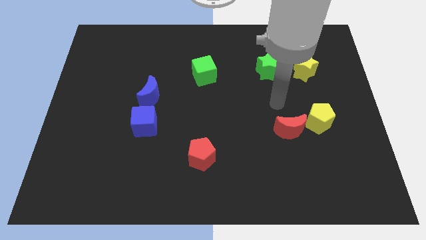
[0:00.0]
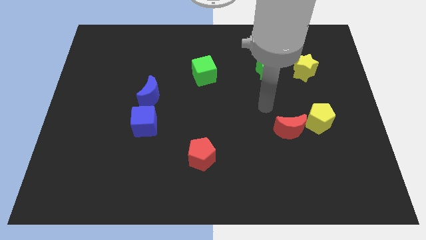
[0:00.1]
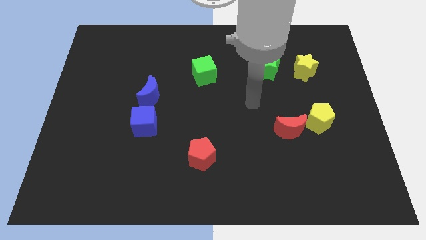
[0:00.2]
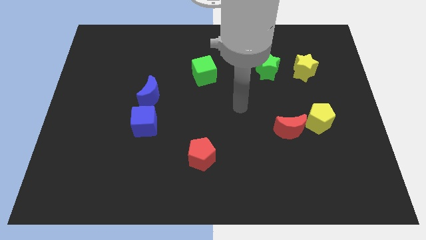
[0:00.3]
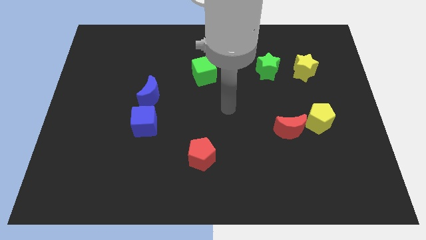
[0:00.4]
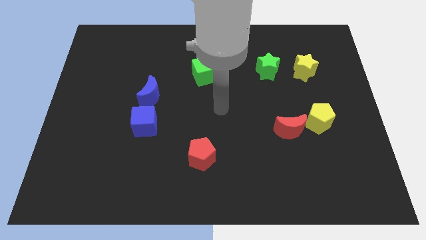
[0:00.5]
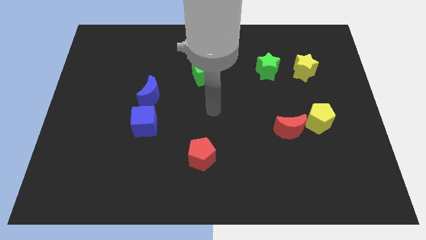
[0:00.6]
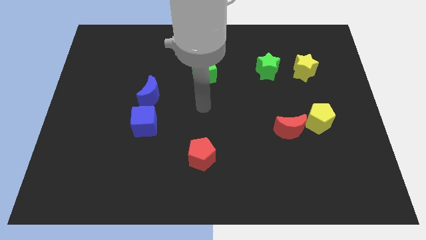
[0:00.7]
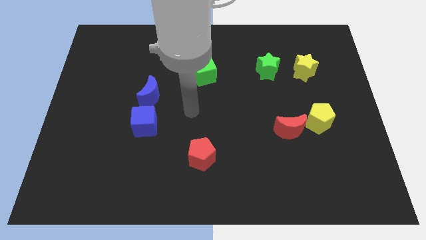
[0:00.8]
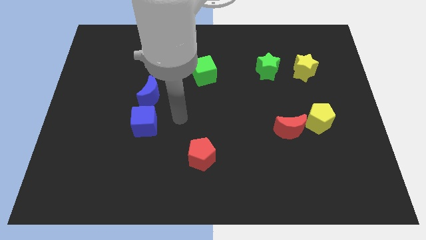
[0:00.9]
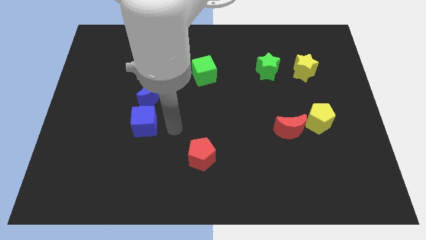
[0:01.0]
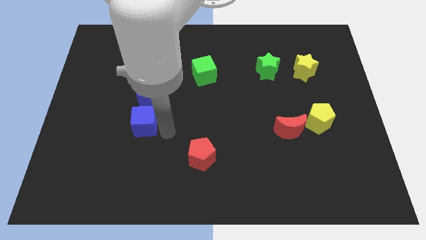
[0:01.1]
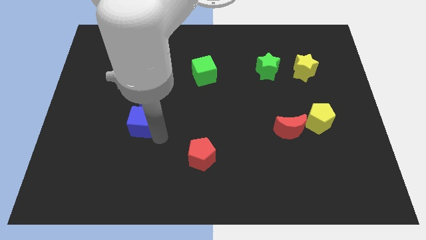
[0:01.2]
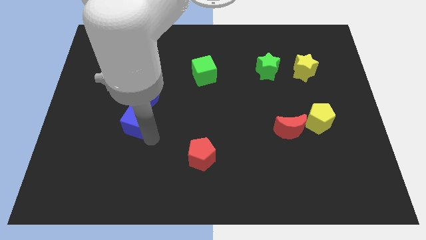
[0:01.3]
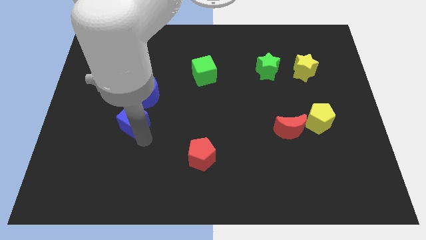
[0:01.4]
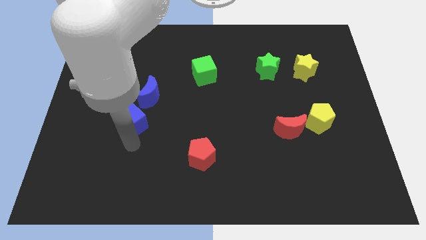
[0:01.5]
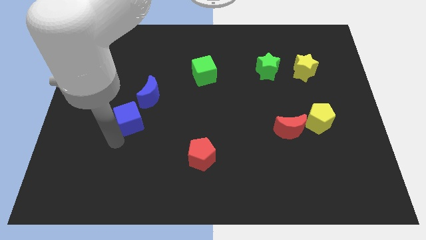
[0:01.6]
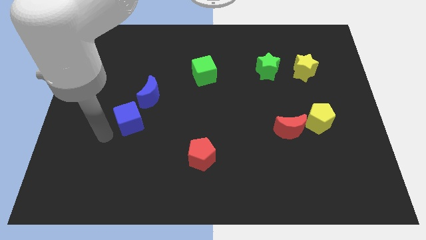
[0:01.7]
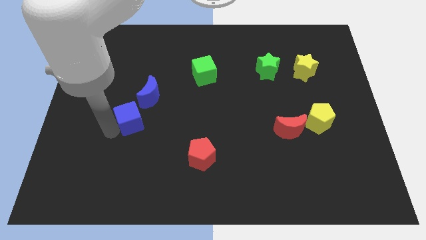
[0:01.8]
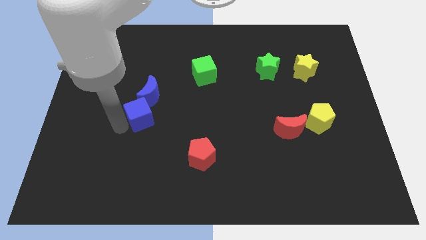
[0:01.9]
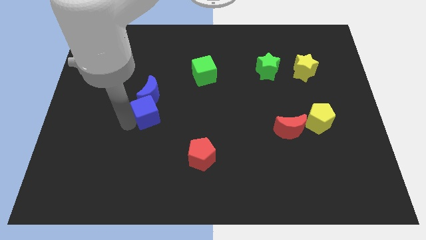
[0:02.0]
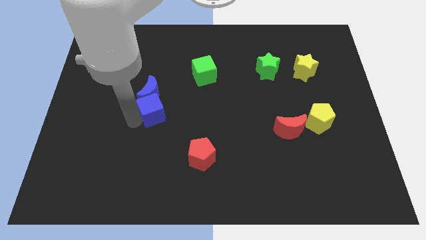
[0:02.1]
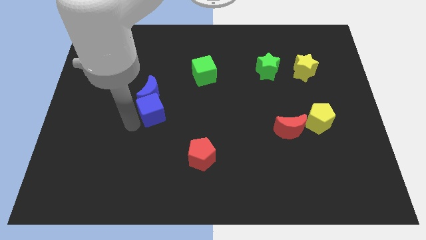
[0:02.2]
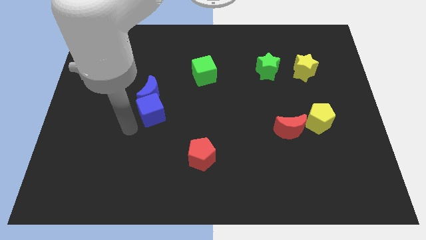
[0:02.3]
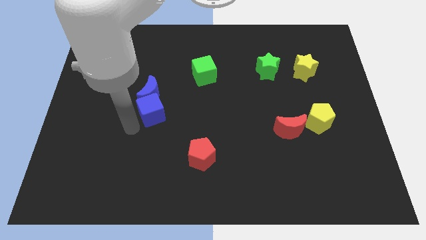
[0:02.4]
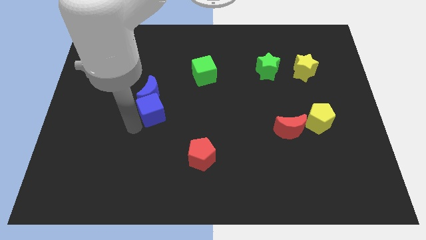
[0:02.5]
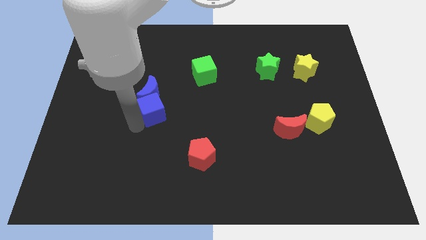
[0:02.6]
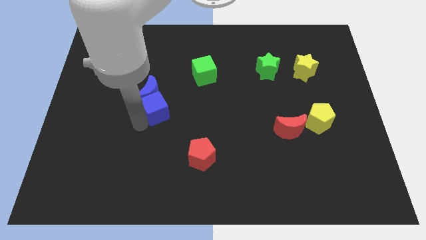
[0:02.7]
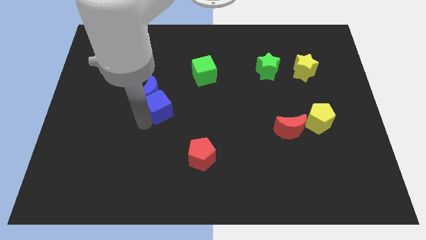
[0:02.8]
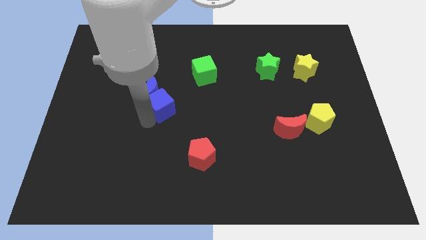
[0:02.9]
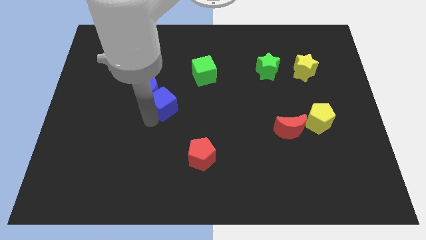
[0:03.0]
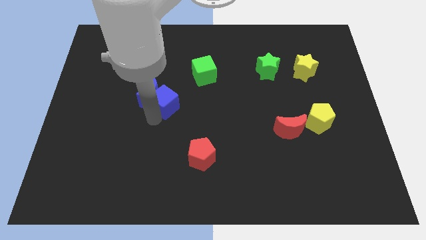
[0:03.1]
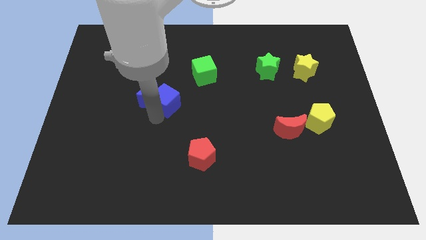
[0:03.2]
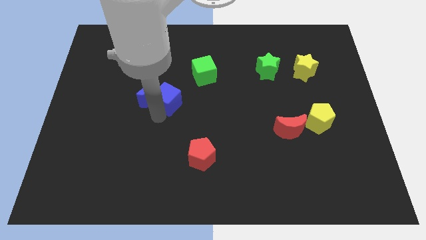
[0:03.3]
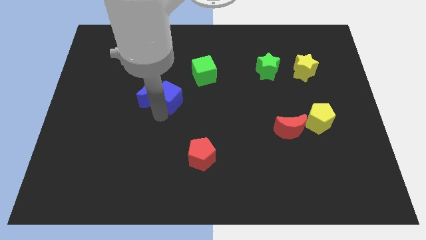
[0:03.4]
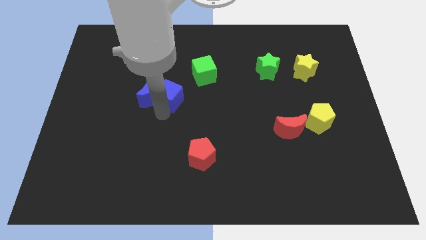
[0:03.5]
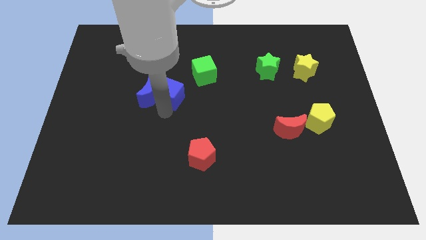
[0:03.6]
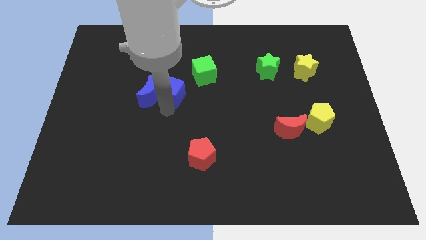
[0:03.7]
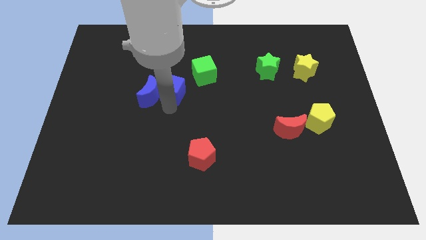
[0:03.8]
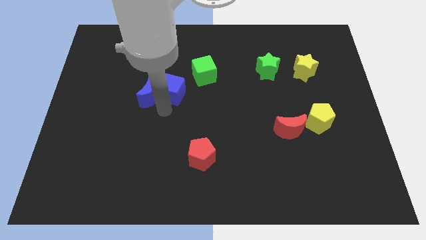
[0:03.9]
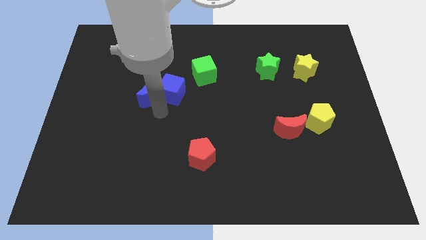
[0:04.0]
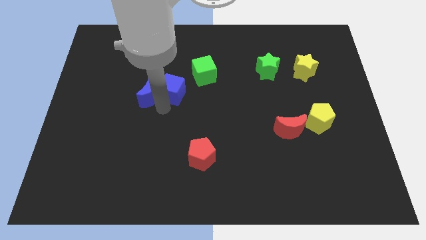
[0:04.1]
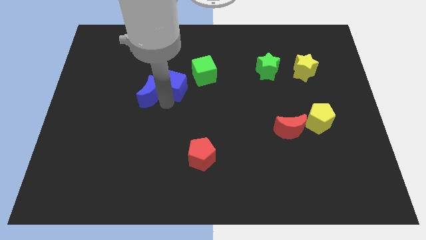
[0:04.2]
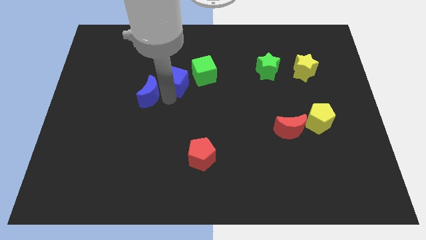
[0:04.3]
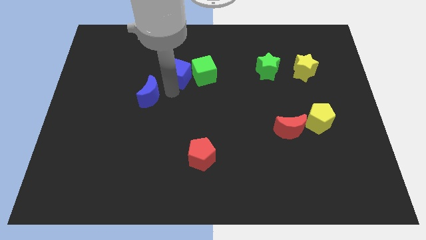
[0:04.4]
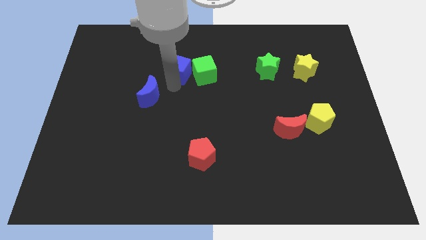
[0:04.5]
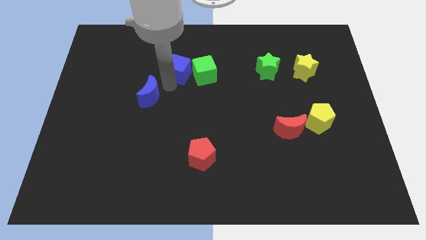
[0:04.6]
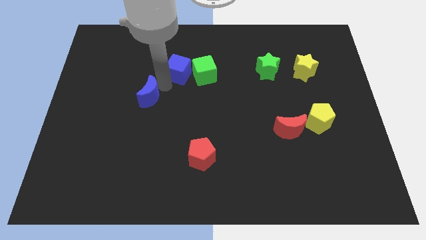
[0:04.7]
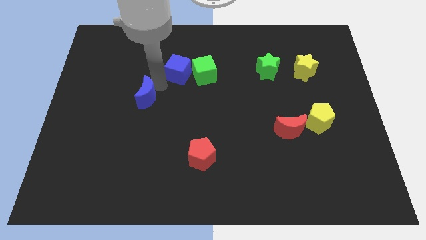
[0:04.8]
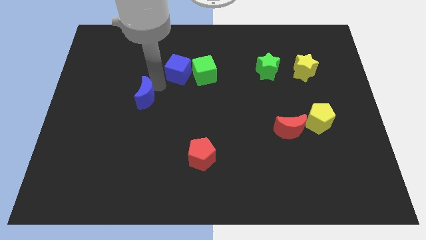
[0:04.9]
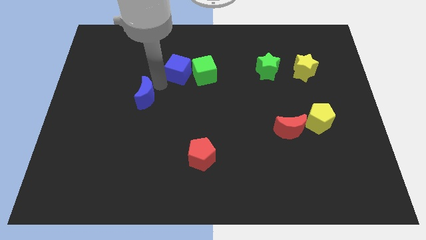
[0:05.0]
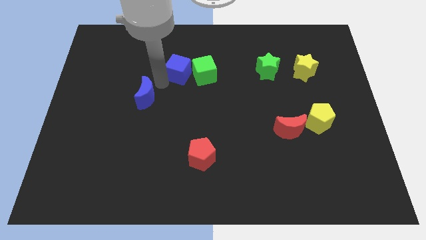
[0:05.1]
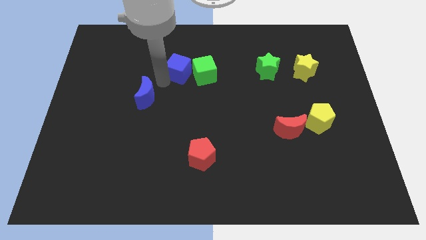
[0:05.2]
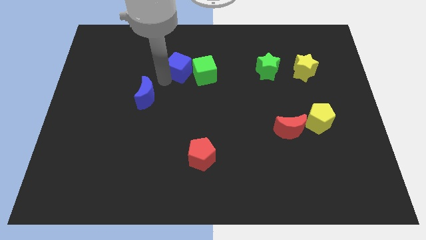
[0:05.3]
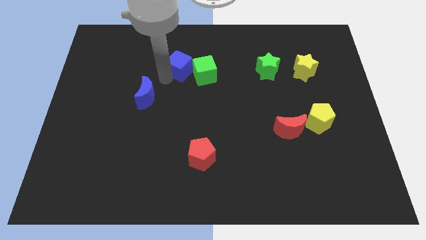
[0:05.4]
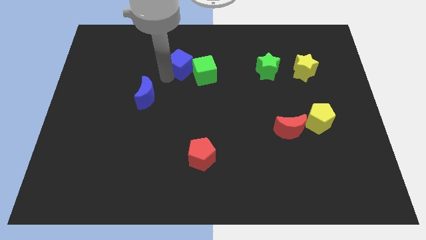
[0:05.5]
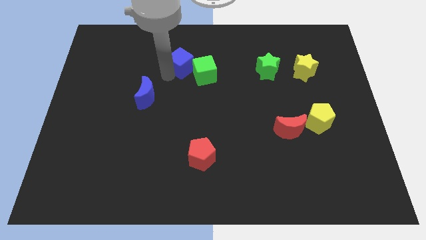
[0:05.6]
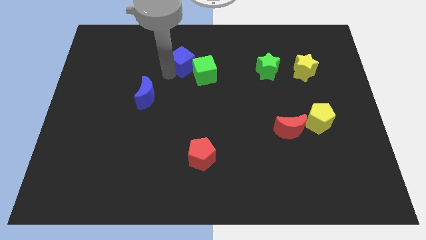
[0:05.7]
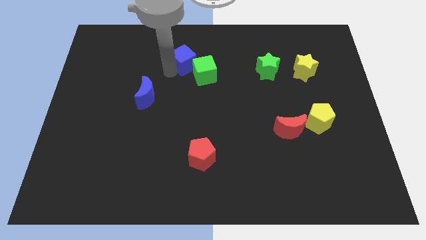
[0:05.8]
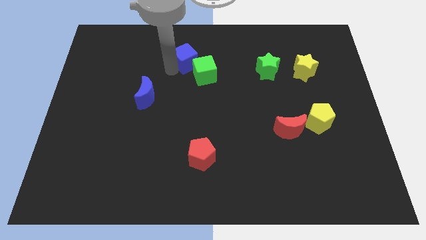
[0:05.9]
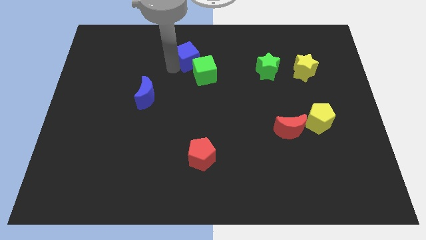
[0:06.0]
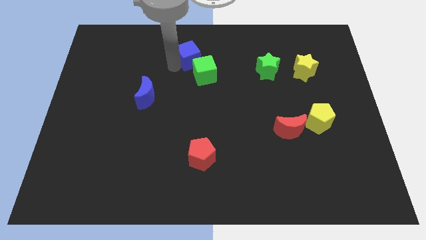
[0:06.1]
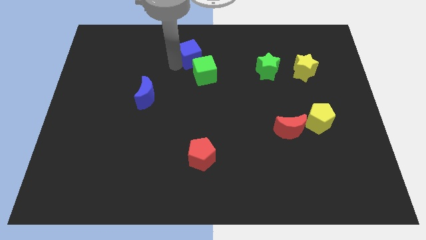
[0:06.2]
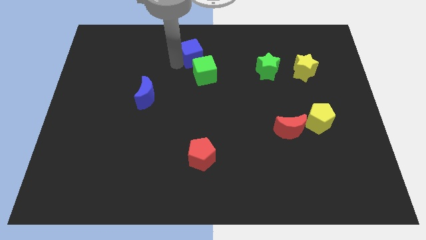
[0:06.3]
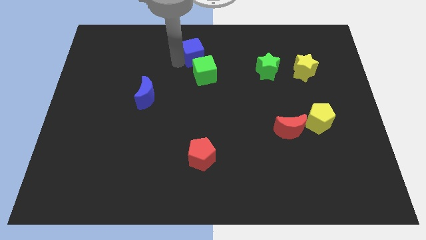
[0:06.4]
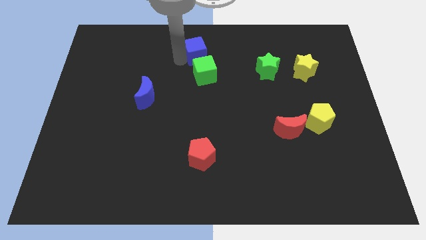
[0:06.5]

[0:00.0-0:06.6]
push the blue cube to the top
